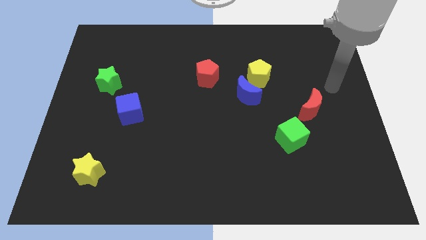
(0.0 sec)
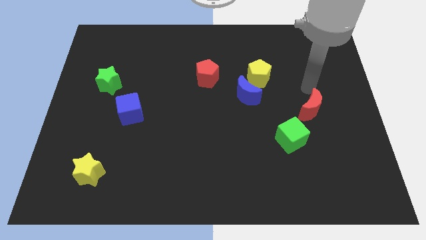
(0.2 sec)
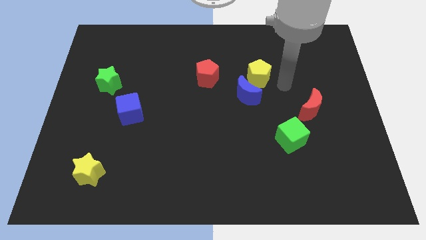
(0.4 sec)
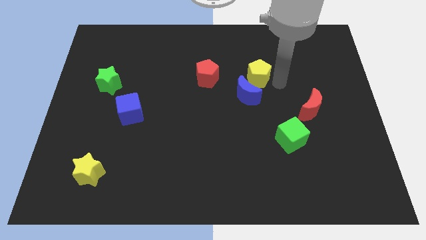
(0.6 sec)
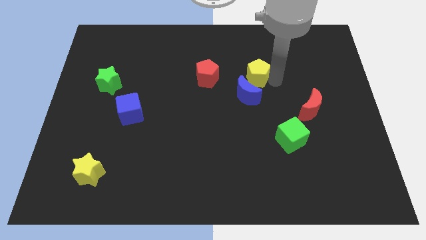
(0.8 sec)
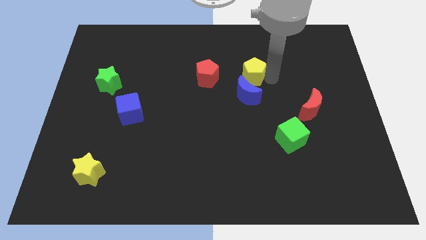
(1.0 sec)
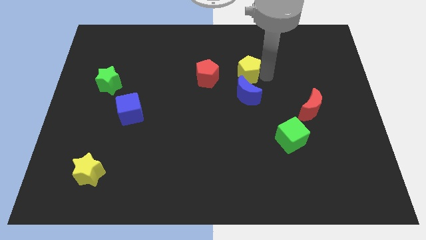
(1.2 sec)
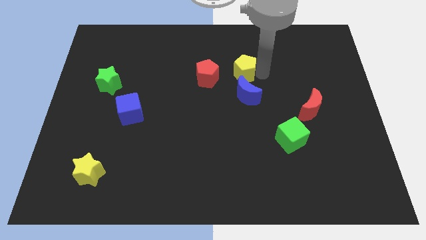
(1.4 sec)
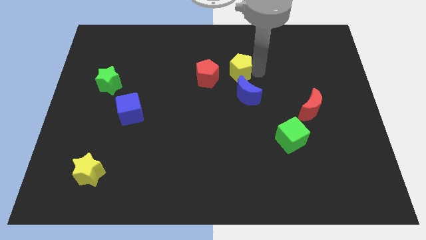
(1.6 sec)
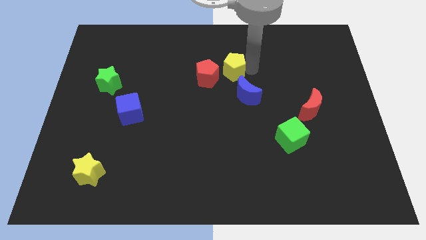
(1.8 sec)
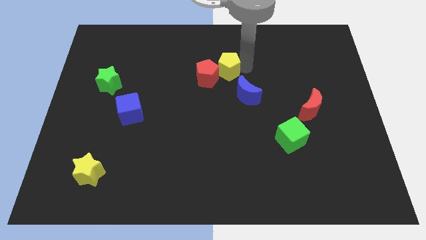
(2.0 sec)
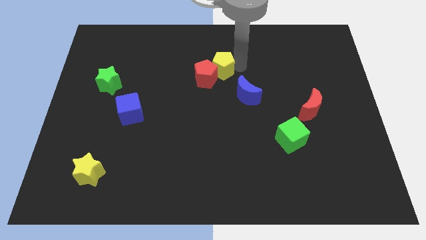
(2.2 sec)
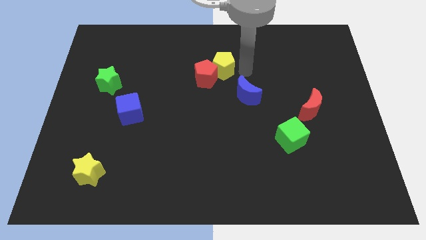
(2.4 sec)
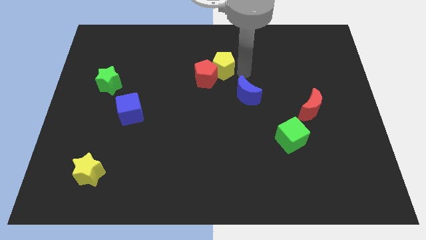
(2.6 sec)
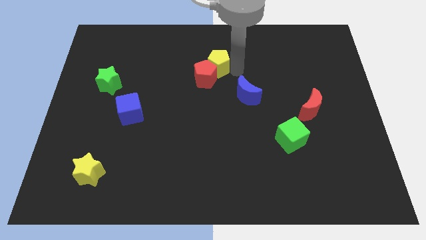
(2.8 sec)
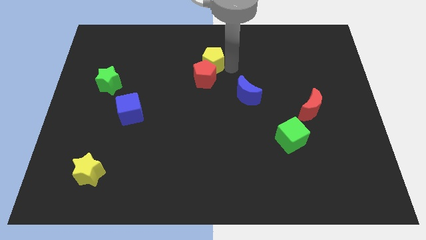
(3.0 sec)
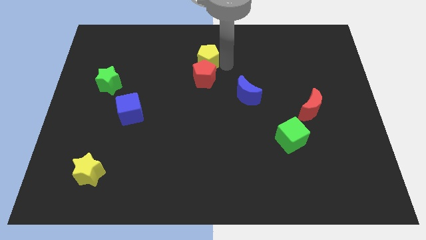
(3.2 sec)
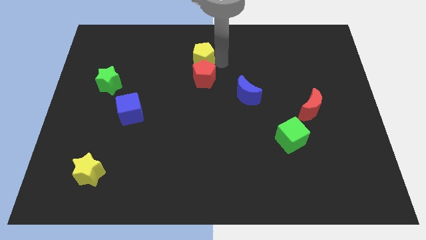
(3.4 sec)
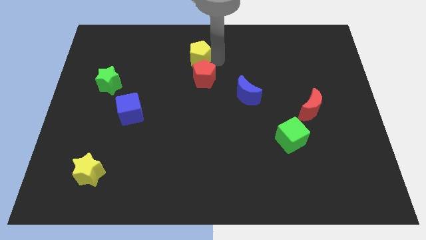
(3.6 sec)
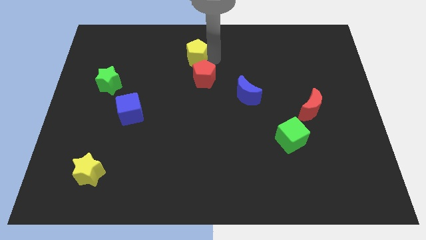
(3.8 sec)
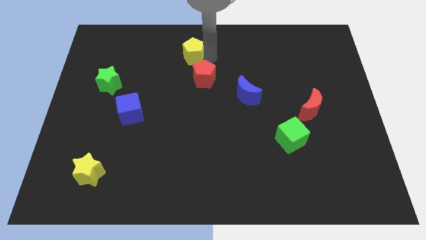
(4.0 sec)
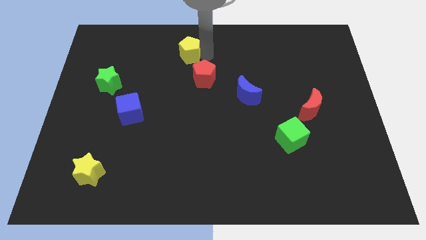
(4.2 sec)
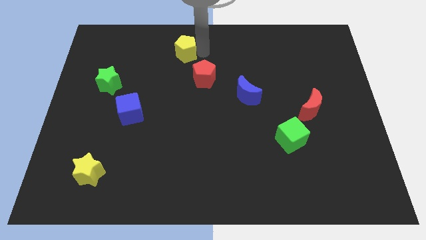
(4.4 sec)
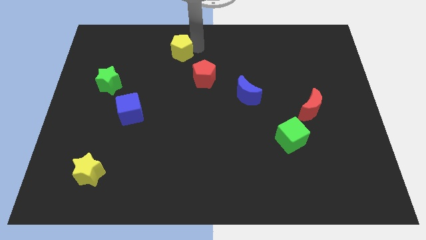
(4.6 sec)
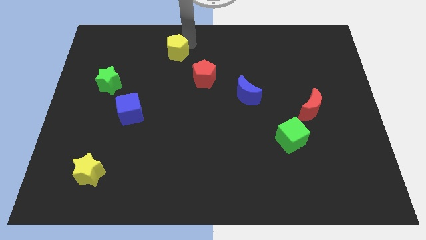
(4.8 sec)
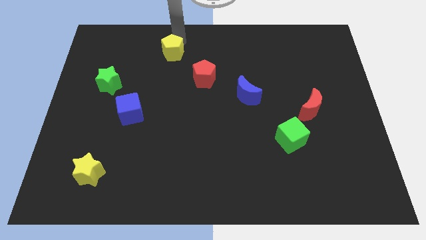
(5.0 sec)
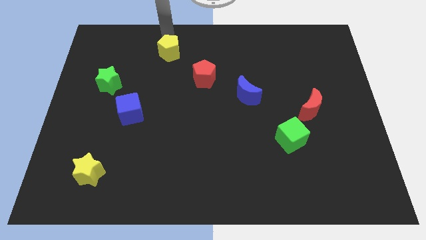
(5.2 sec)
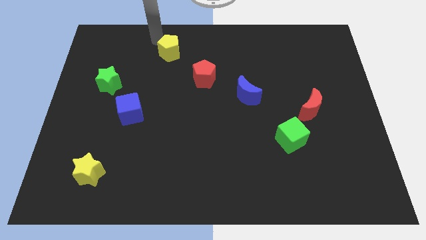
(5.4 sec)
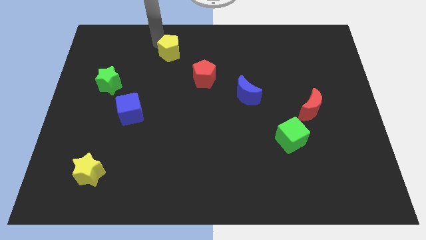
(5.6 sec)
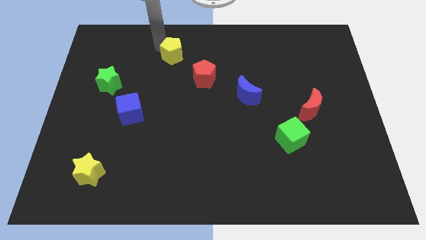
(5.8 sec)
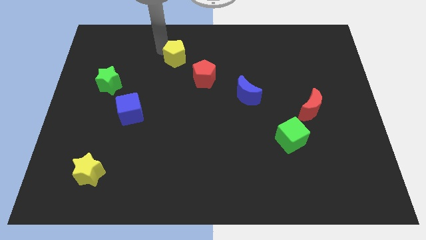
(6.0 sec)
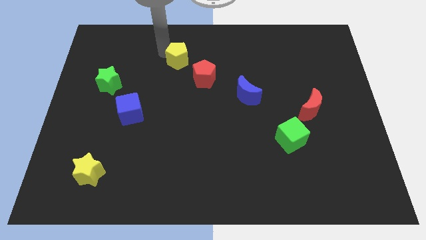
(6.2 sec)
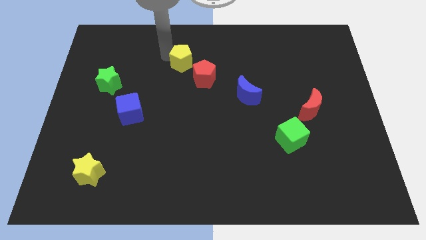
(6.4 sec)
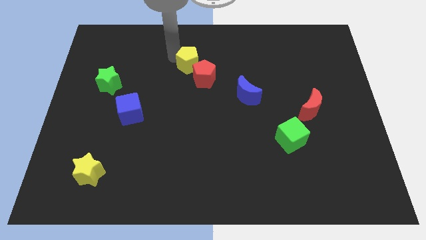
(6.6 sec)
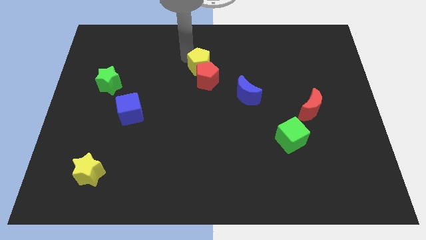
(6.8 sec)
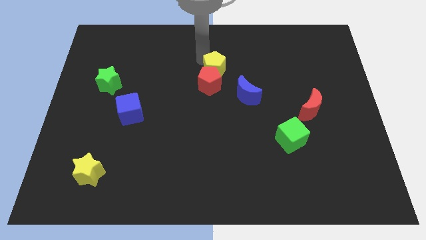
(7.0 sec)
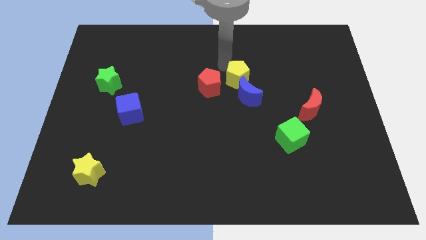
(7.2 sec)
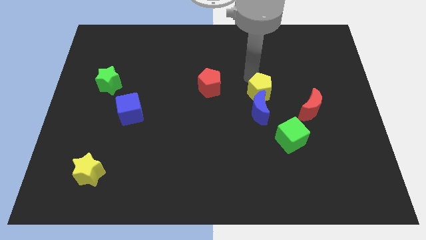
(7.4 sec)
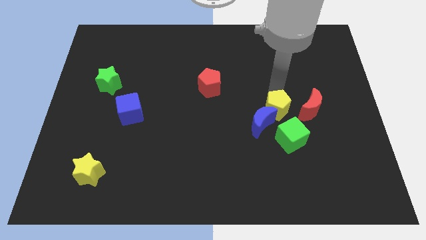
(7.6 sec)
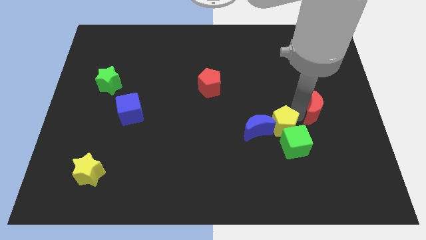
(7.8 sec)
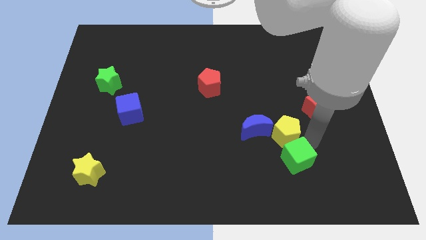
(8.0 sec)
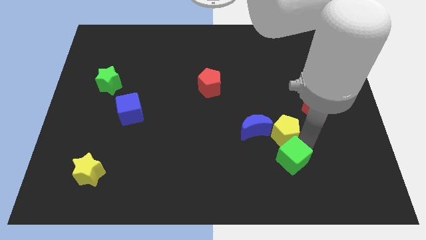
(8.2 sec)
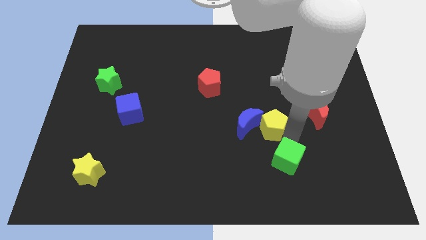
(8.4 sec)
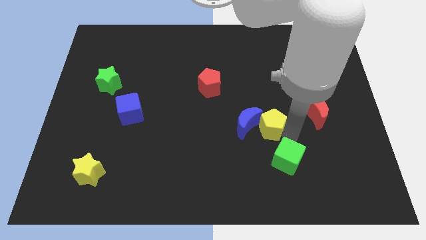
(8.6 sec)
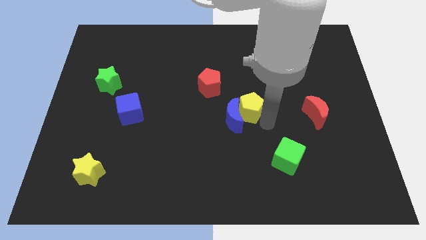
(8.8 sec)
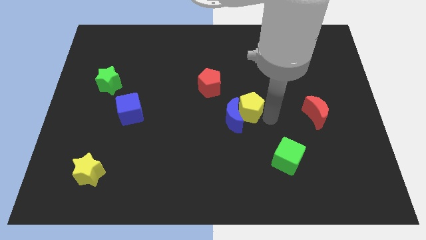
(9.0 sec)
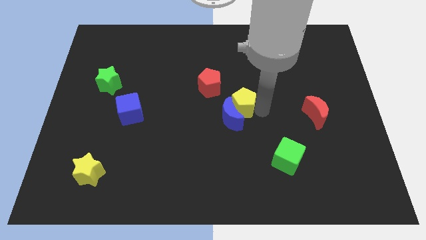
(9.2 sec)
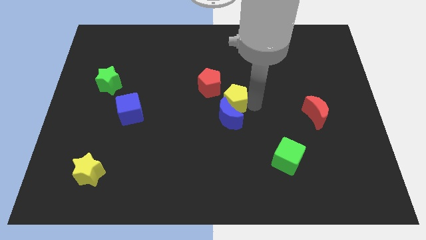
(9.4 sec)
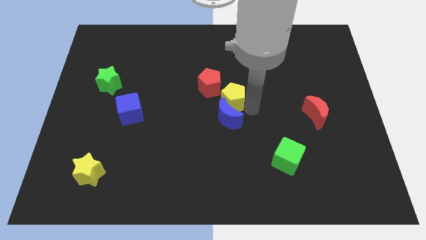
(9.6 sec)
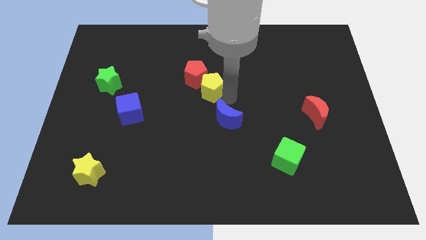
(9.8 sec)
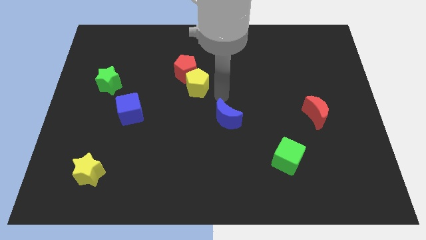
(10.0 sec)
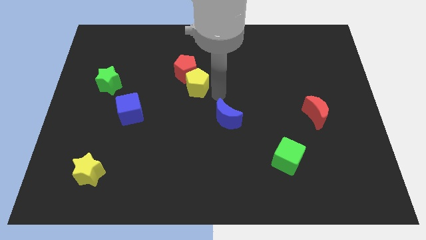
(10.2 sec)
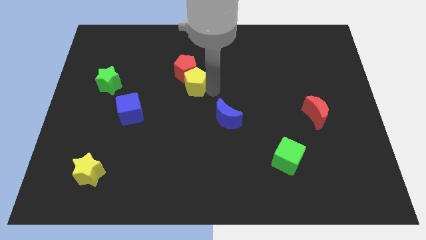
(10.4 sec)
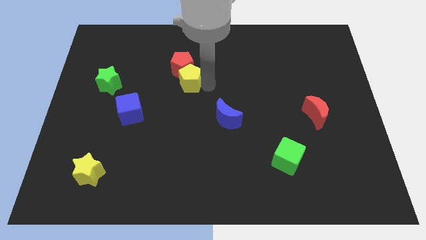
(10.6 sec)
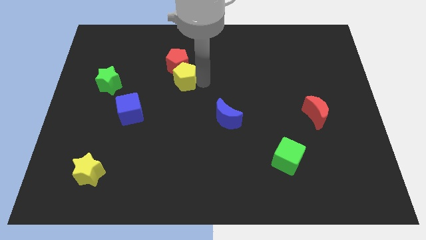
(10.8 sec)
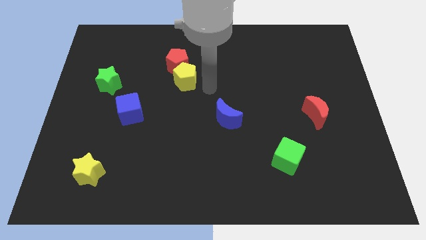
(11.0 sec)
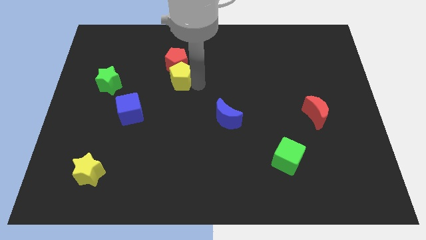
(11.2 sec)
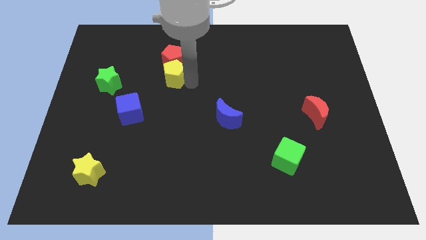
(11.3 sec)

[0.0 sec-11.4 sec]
push the yellow pentagon to the left

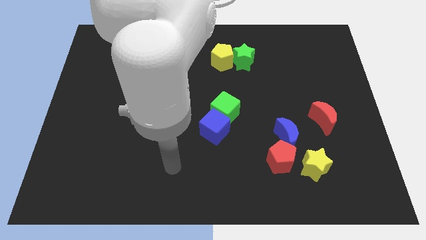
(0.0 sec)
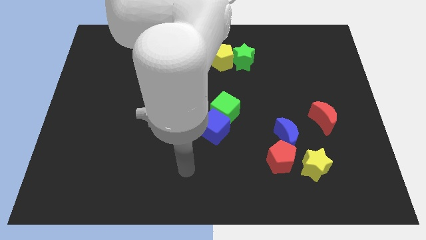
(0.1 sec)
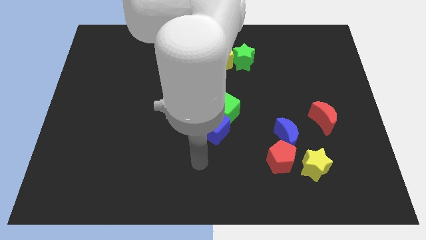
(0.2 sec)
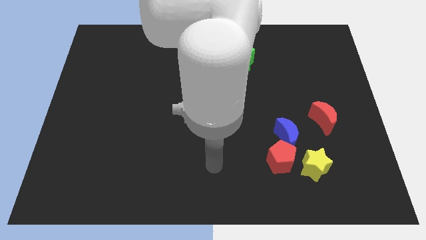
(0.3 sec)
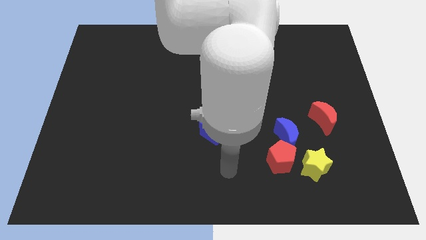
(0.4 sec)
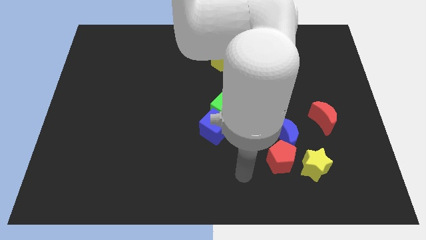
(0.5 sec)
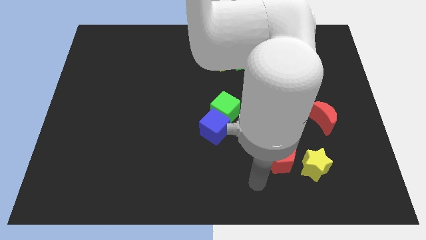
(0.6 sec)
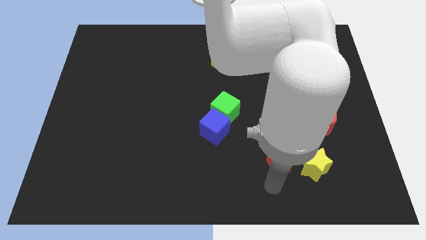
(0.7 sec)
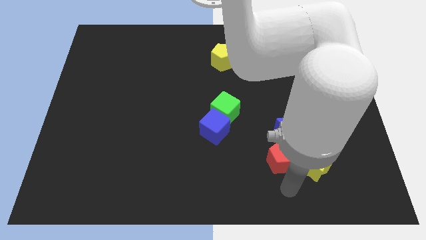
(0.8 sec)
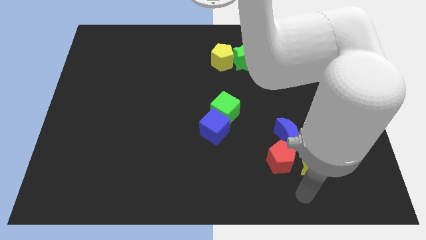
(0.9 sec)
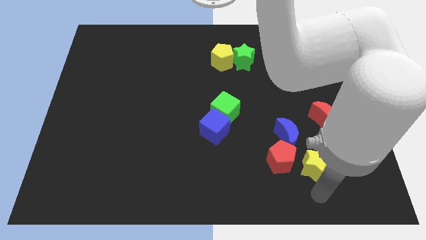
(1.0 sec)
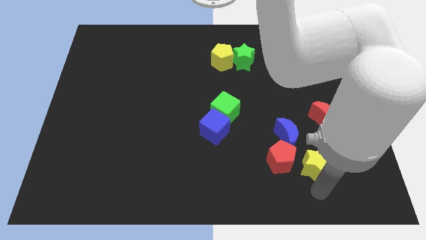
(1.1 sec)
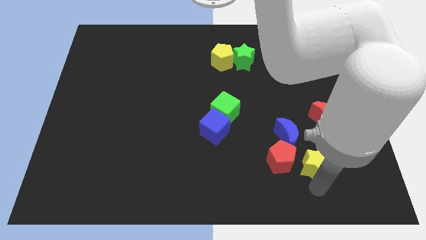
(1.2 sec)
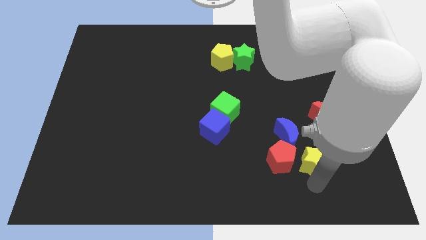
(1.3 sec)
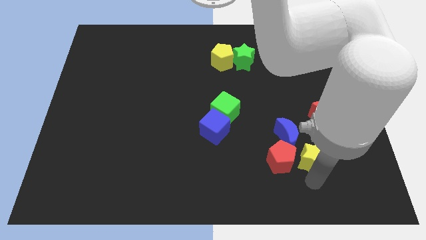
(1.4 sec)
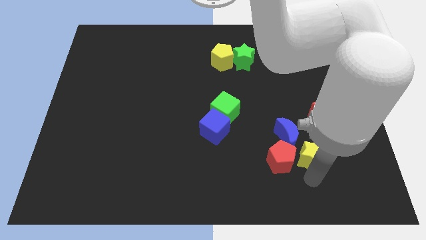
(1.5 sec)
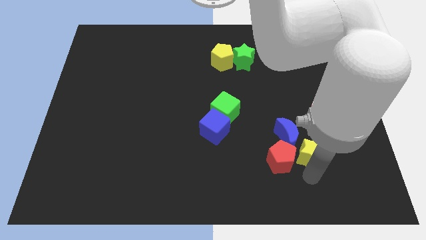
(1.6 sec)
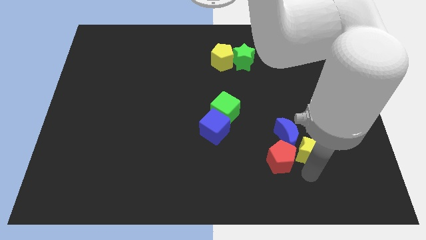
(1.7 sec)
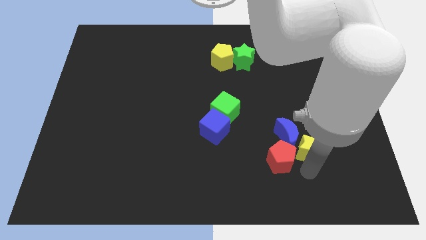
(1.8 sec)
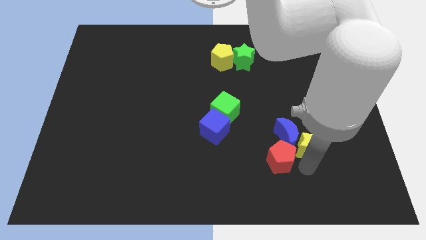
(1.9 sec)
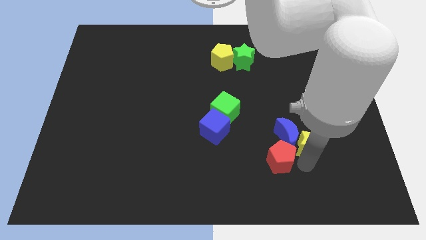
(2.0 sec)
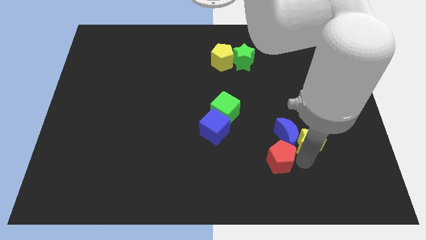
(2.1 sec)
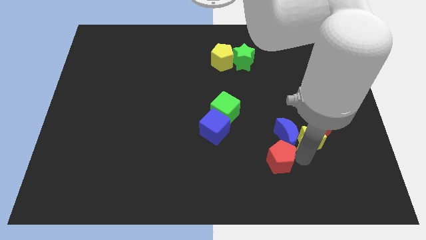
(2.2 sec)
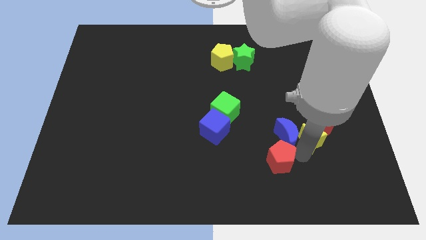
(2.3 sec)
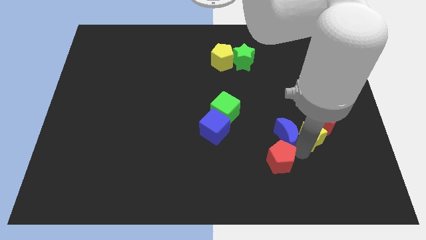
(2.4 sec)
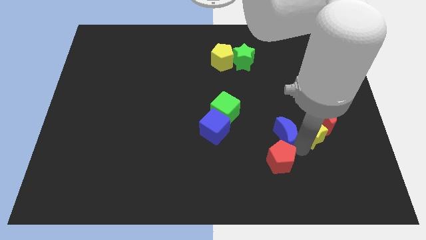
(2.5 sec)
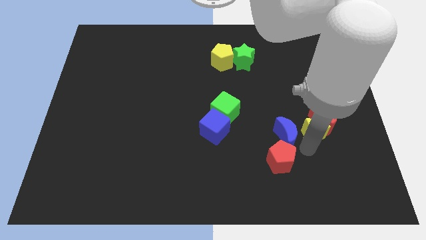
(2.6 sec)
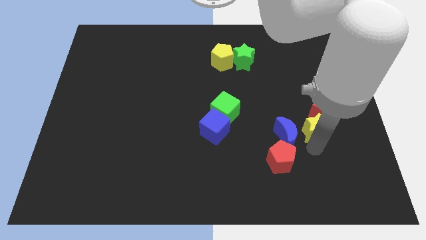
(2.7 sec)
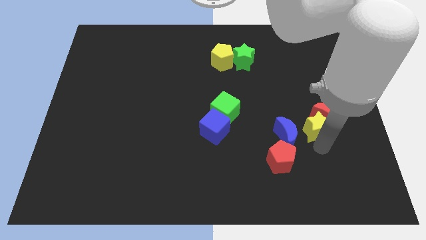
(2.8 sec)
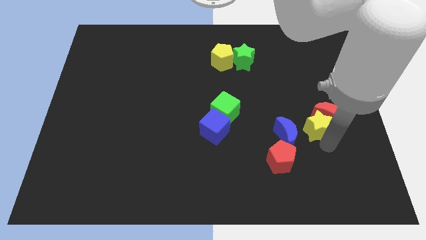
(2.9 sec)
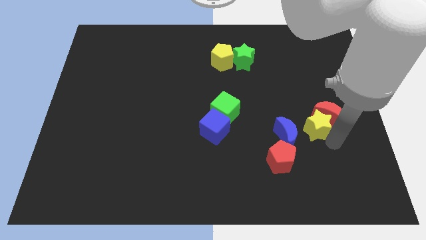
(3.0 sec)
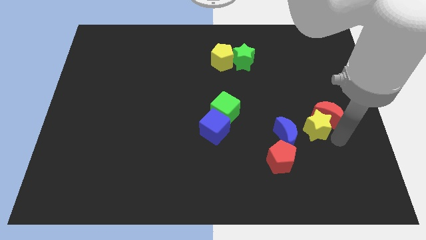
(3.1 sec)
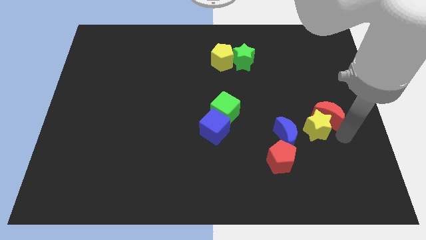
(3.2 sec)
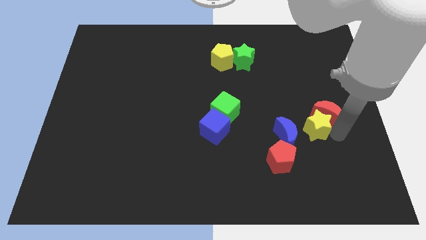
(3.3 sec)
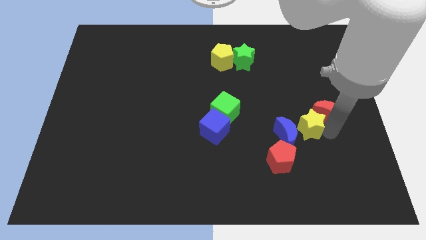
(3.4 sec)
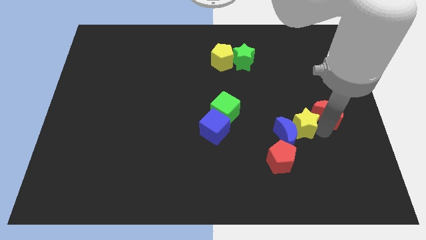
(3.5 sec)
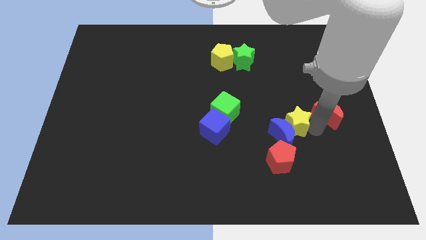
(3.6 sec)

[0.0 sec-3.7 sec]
slide the yellow star somewhat diagonally up and to the left
